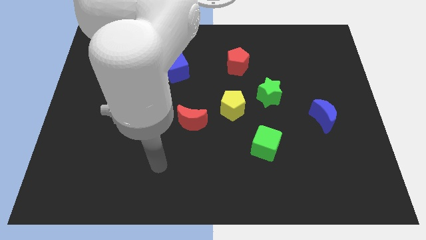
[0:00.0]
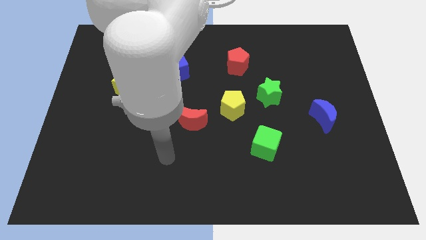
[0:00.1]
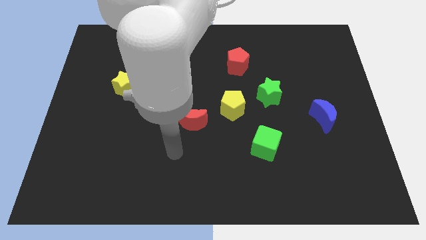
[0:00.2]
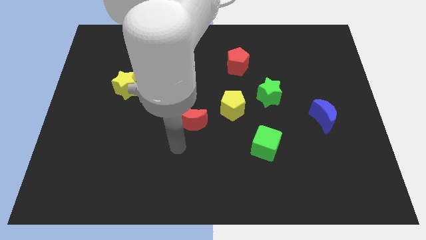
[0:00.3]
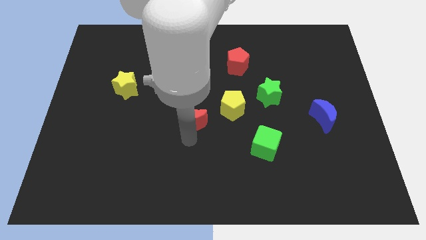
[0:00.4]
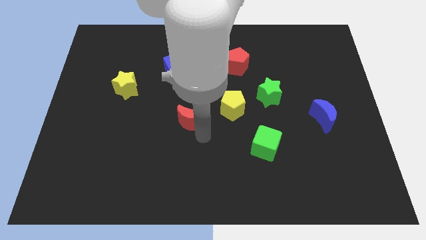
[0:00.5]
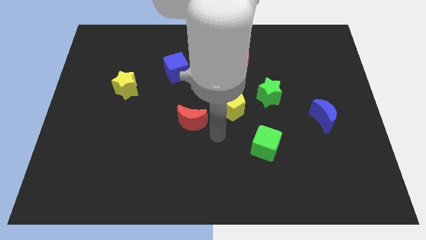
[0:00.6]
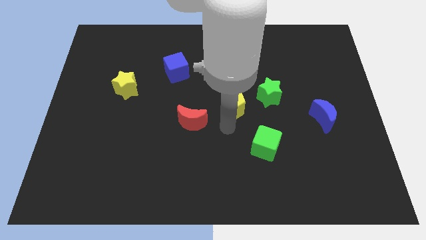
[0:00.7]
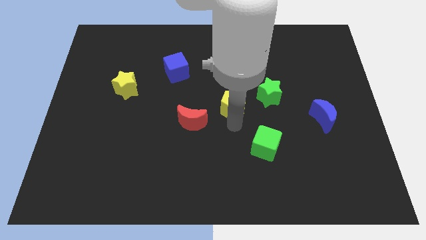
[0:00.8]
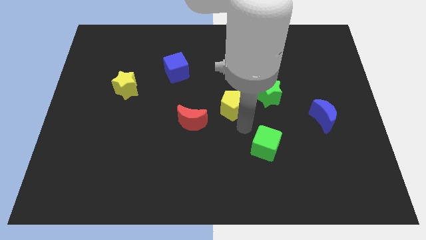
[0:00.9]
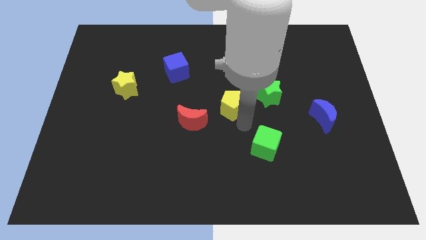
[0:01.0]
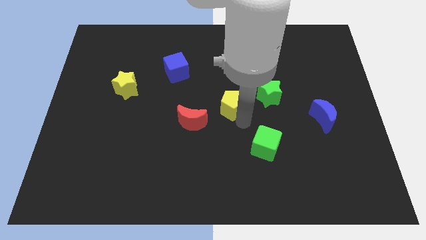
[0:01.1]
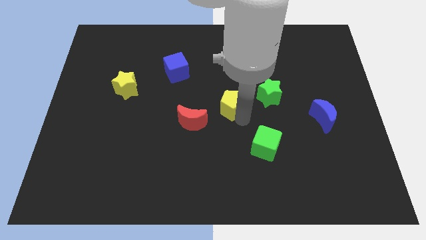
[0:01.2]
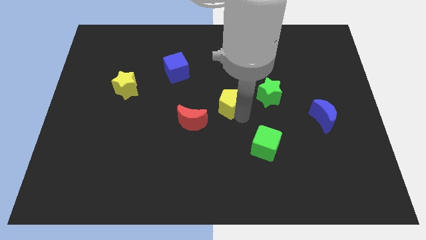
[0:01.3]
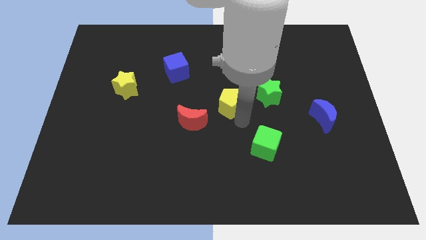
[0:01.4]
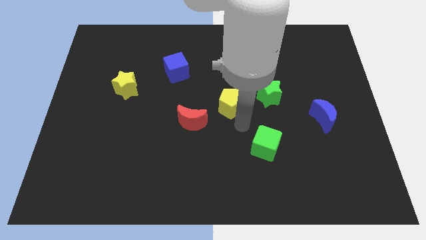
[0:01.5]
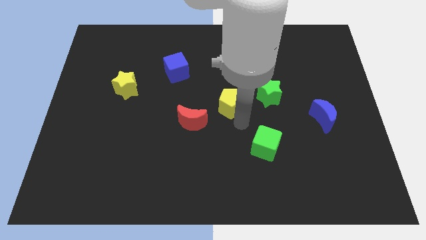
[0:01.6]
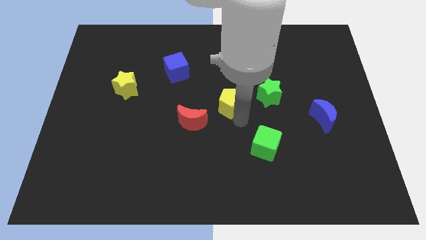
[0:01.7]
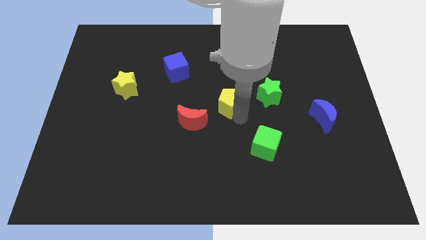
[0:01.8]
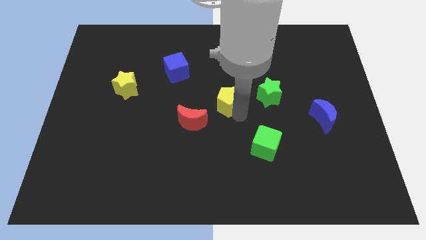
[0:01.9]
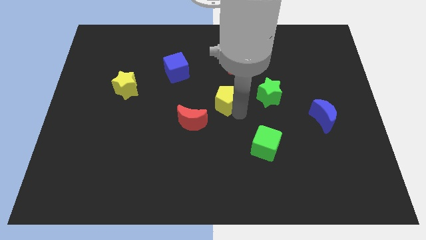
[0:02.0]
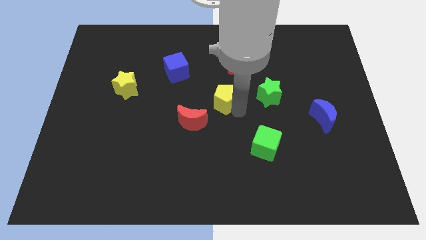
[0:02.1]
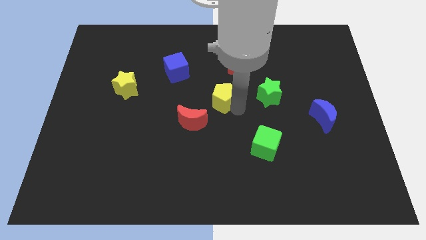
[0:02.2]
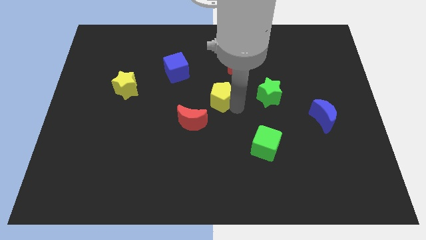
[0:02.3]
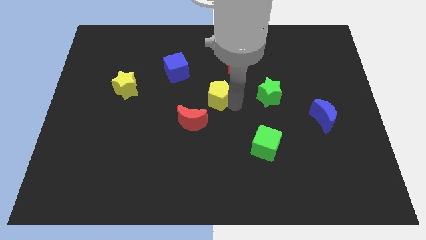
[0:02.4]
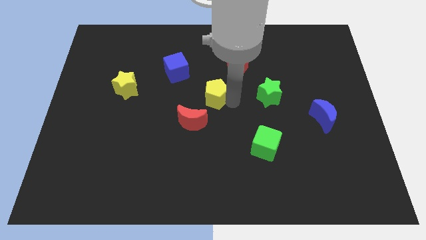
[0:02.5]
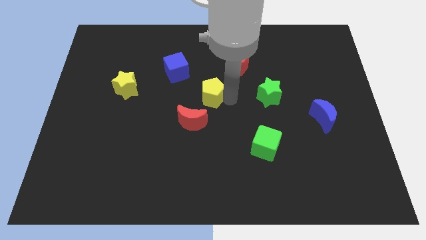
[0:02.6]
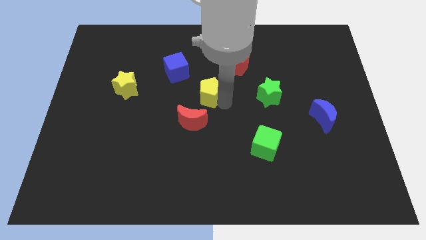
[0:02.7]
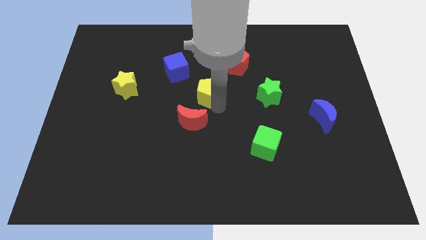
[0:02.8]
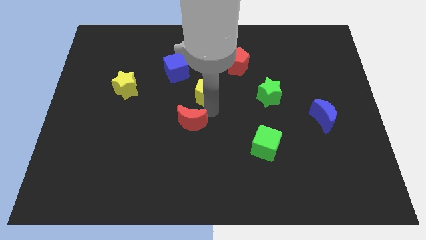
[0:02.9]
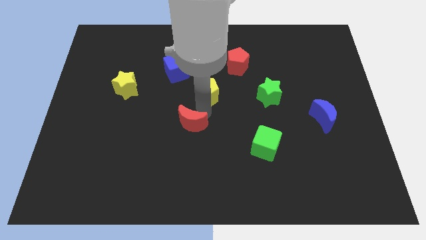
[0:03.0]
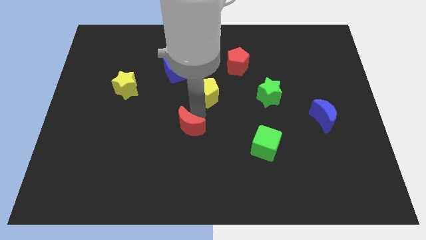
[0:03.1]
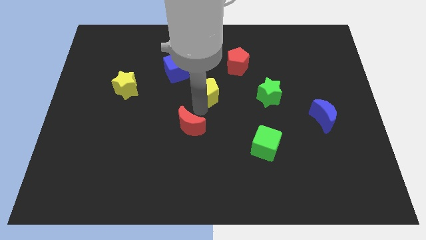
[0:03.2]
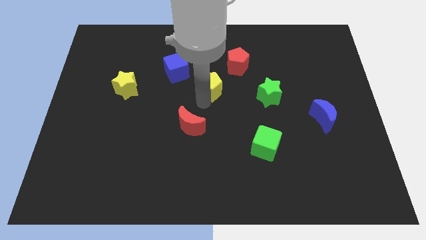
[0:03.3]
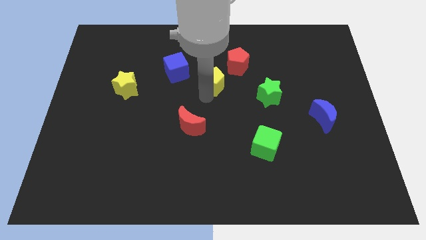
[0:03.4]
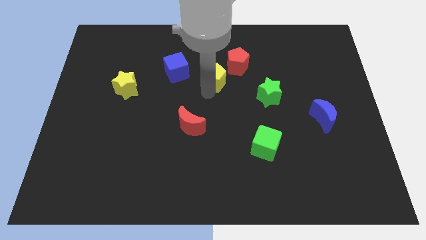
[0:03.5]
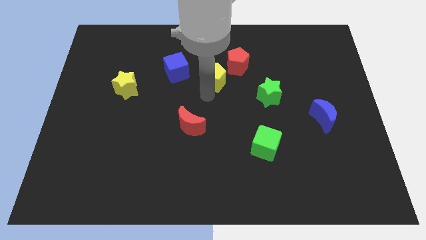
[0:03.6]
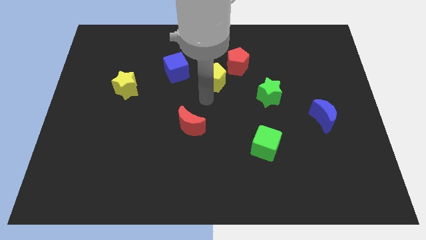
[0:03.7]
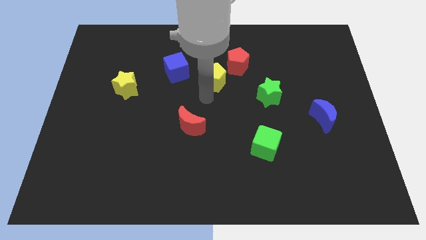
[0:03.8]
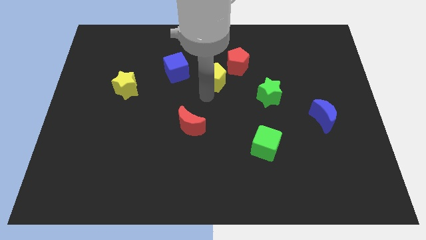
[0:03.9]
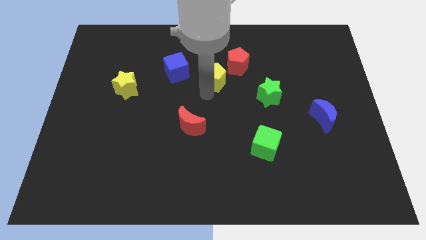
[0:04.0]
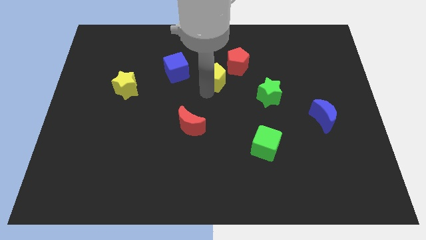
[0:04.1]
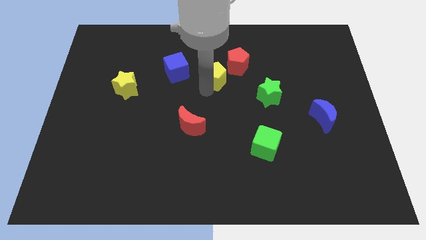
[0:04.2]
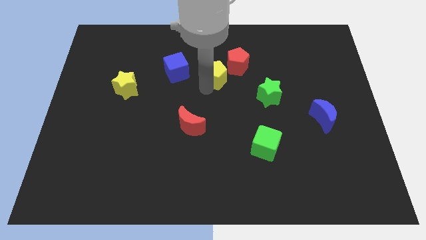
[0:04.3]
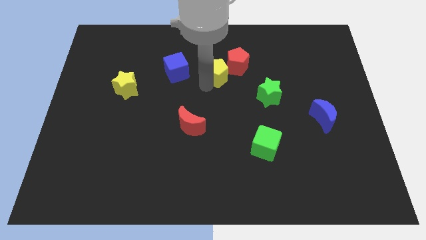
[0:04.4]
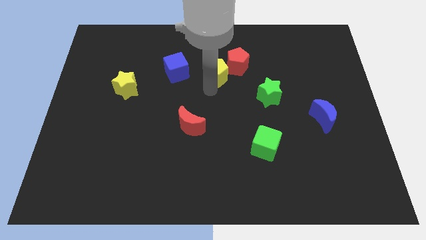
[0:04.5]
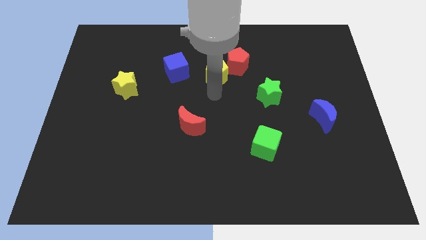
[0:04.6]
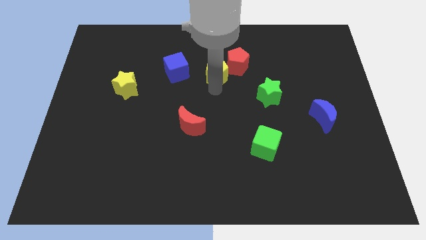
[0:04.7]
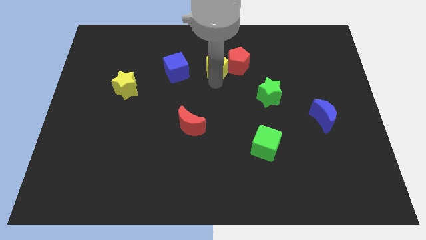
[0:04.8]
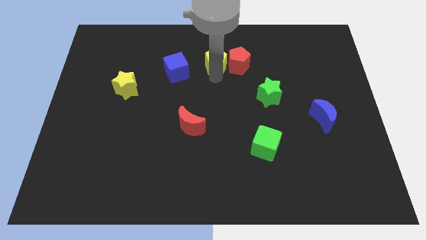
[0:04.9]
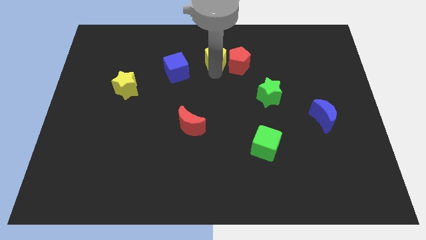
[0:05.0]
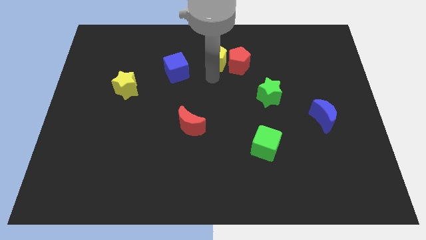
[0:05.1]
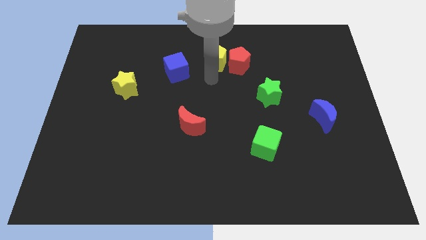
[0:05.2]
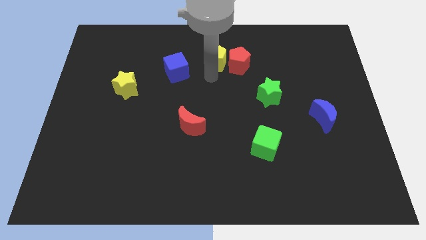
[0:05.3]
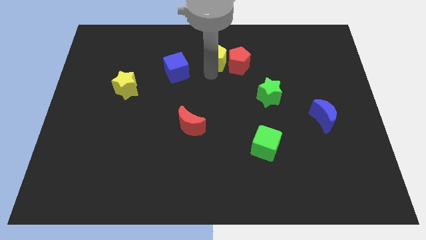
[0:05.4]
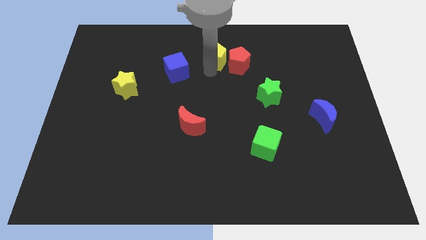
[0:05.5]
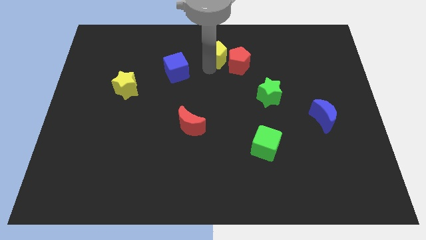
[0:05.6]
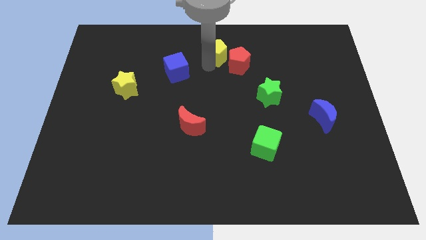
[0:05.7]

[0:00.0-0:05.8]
move the yellow pentagon to the towards your base
